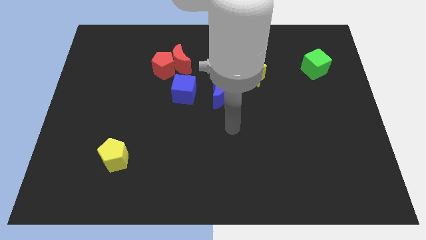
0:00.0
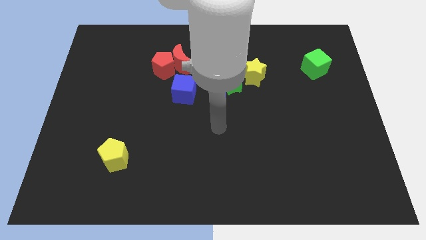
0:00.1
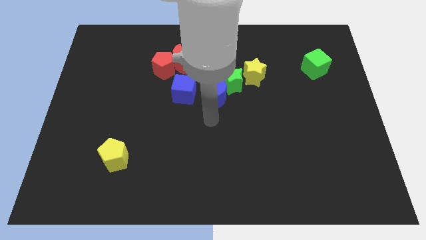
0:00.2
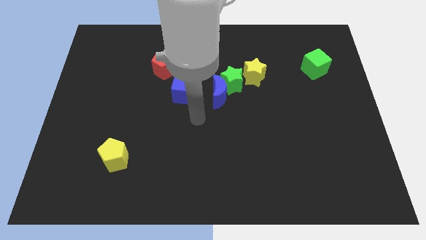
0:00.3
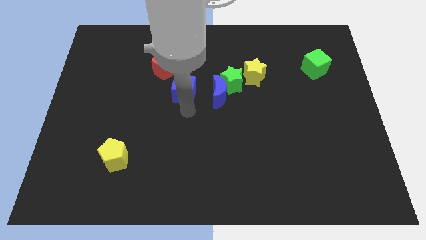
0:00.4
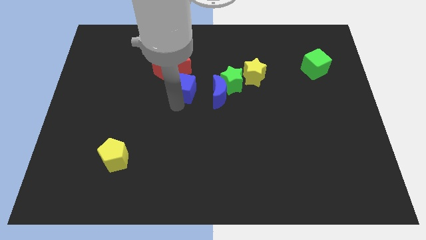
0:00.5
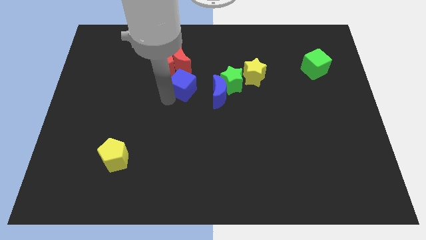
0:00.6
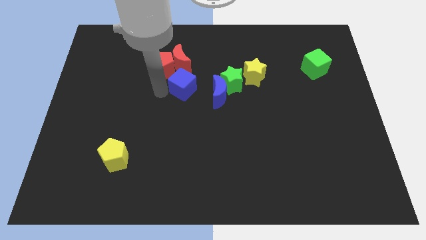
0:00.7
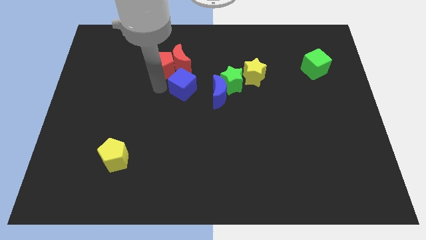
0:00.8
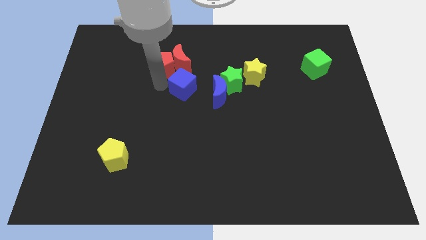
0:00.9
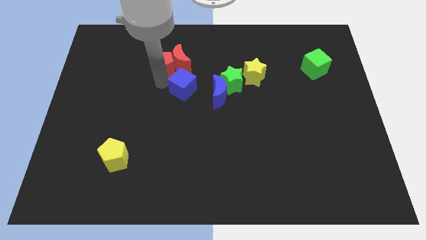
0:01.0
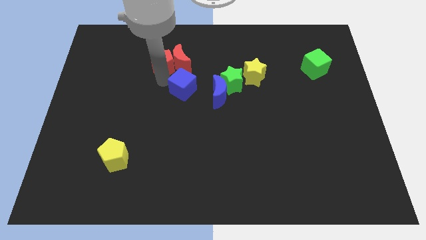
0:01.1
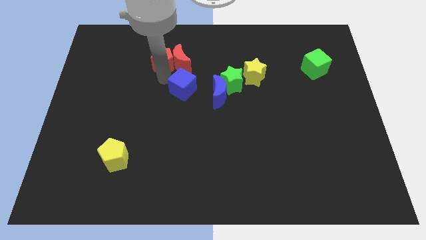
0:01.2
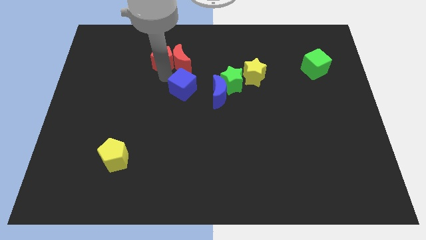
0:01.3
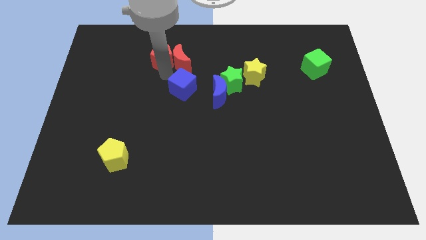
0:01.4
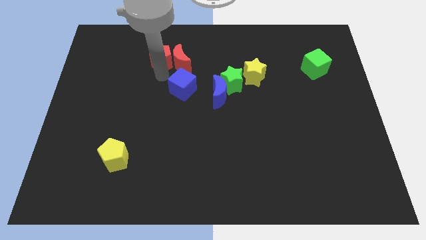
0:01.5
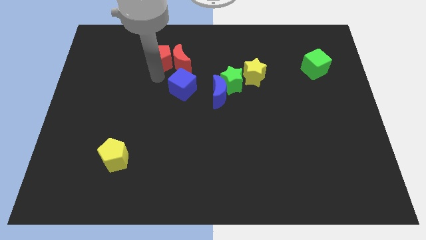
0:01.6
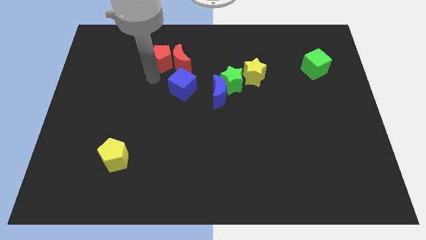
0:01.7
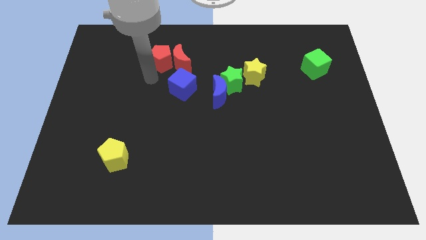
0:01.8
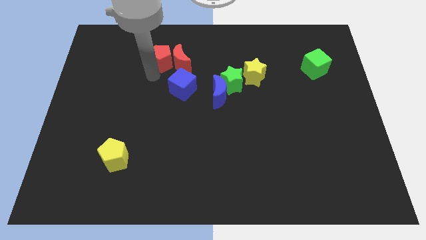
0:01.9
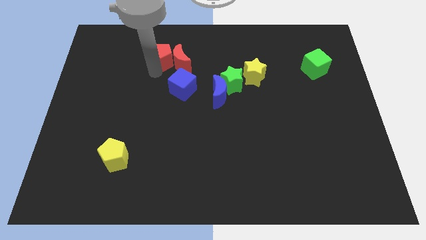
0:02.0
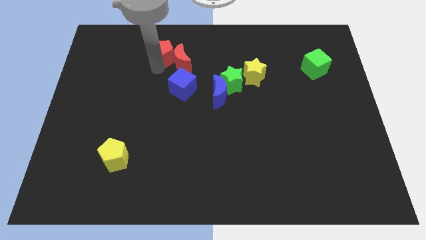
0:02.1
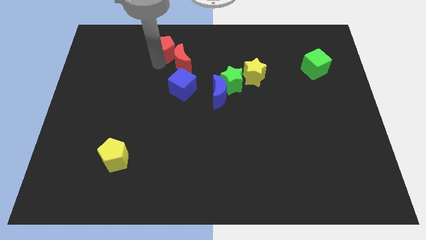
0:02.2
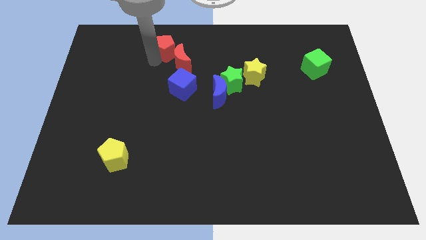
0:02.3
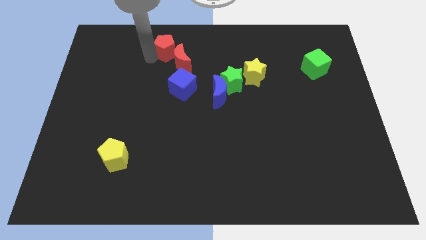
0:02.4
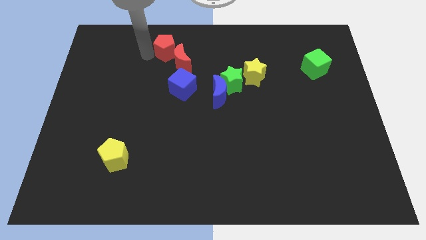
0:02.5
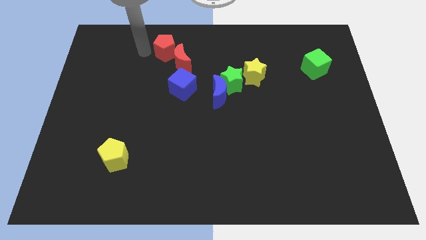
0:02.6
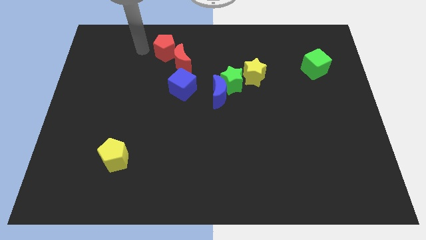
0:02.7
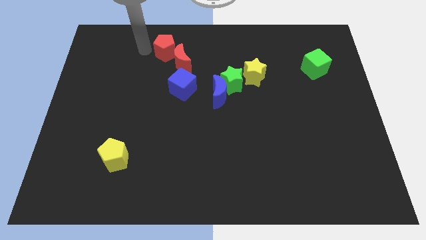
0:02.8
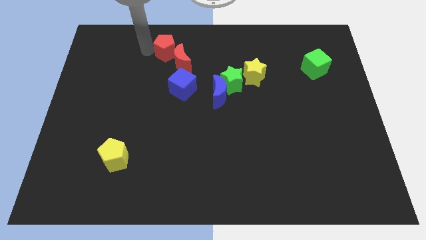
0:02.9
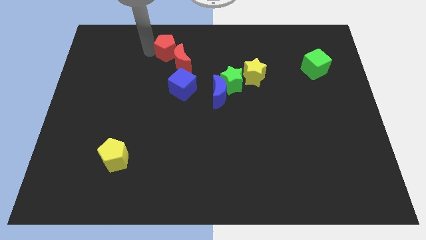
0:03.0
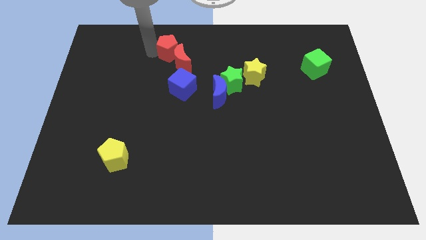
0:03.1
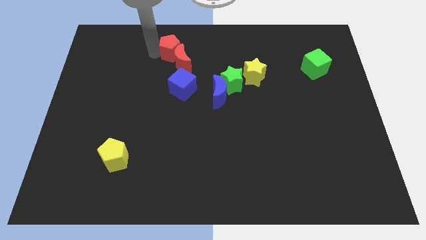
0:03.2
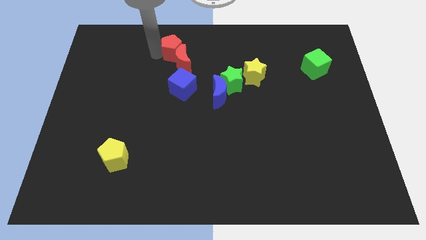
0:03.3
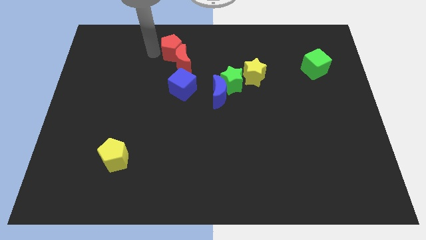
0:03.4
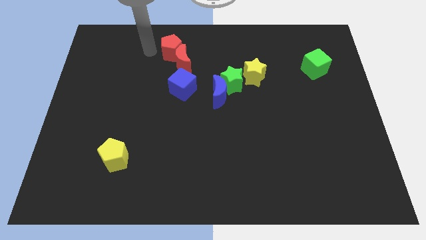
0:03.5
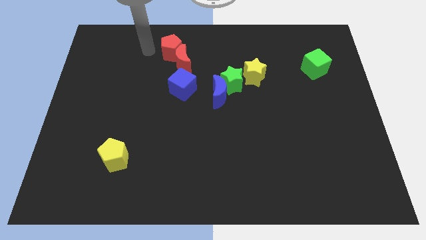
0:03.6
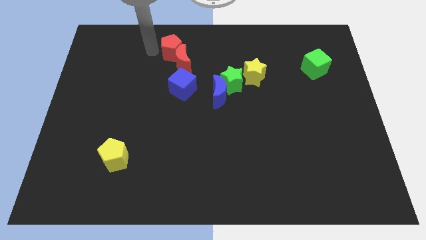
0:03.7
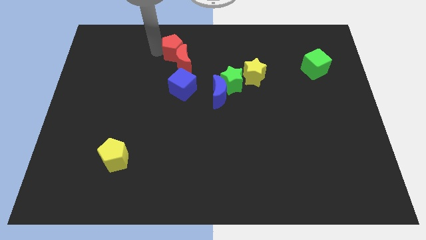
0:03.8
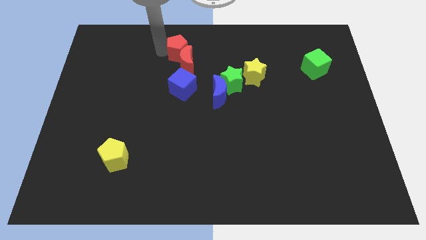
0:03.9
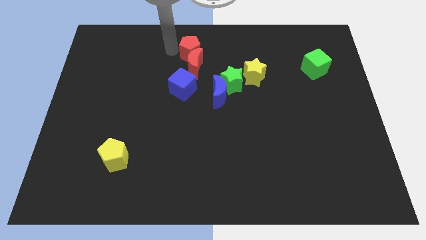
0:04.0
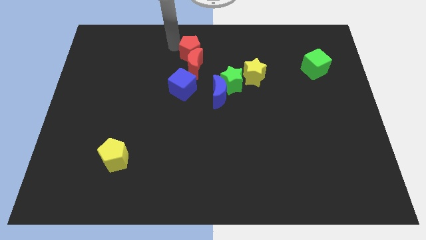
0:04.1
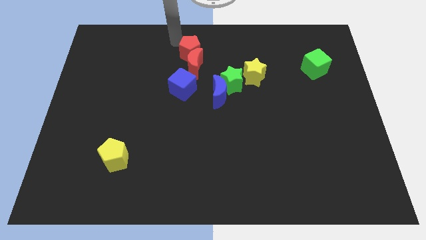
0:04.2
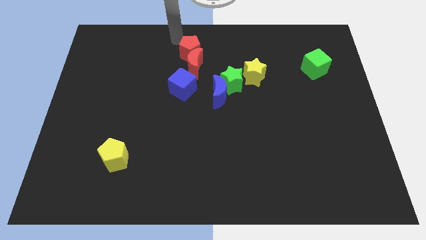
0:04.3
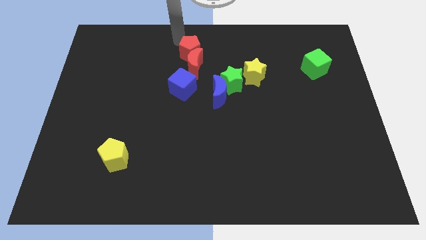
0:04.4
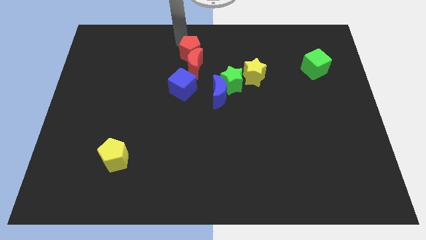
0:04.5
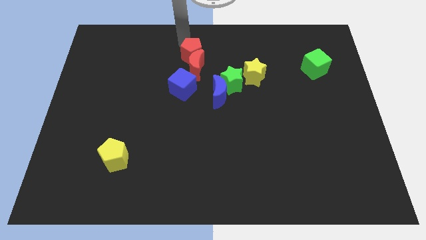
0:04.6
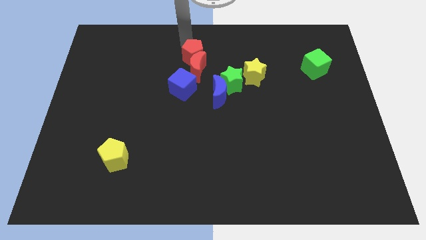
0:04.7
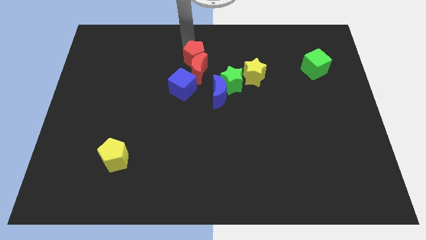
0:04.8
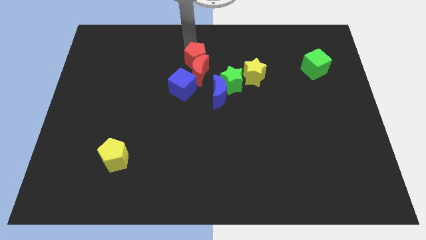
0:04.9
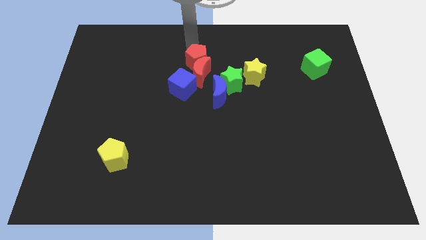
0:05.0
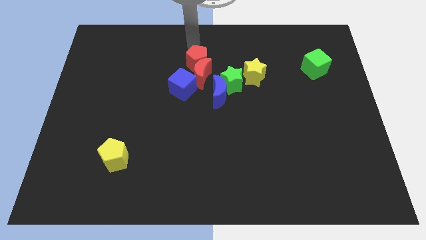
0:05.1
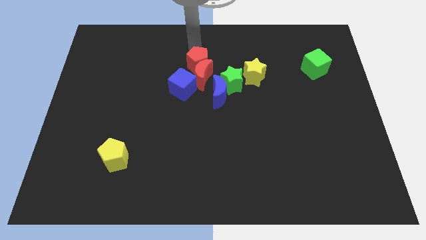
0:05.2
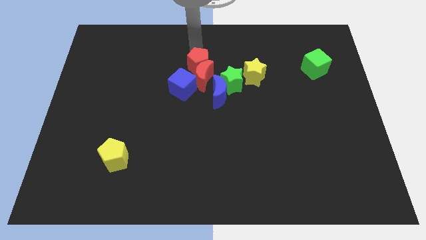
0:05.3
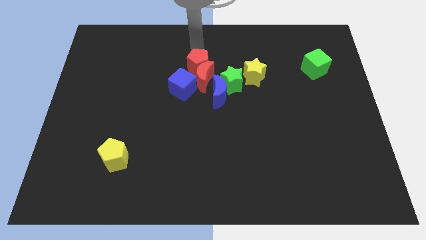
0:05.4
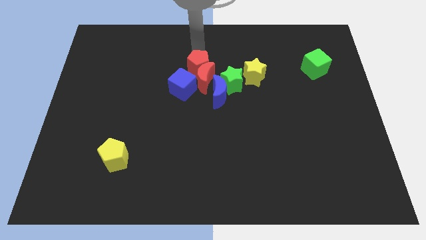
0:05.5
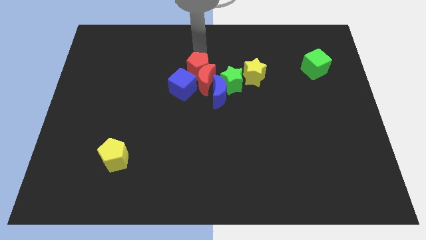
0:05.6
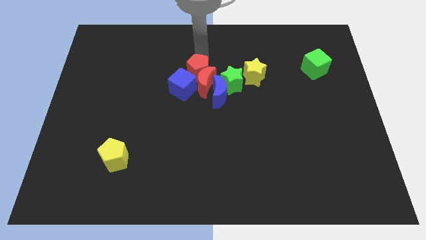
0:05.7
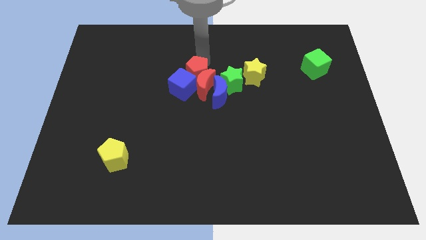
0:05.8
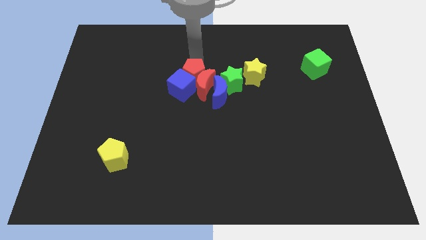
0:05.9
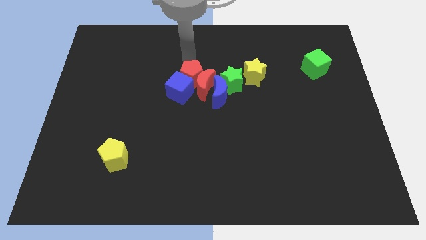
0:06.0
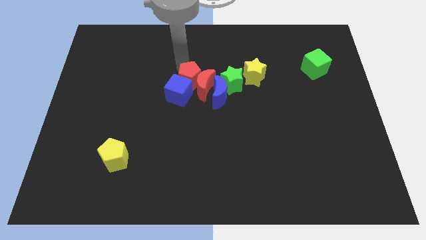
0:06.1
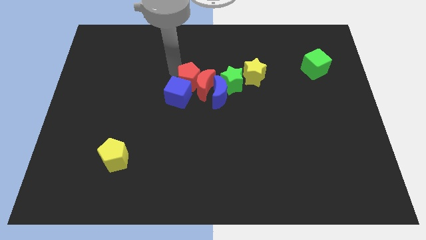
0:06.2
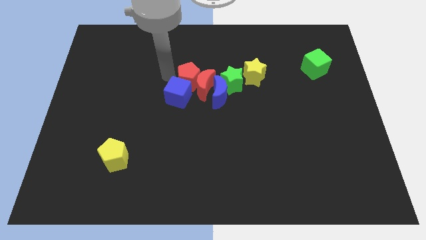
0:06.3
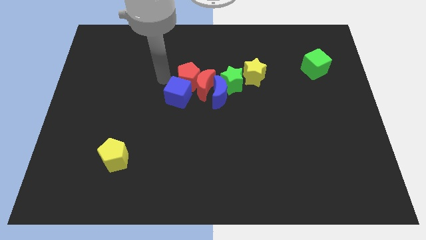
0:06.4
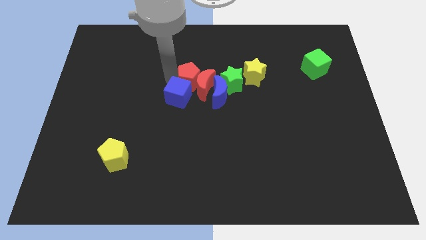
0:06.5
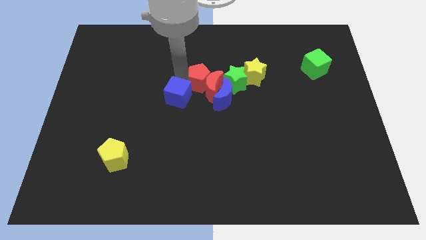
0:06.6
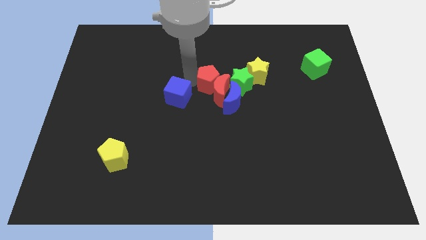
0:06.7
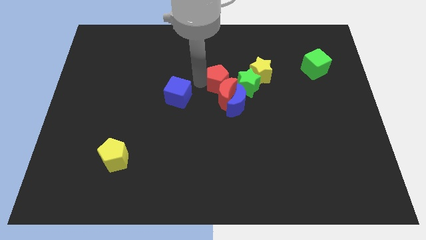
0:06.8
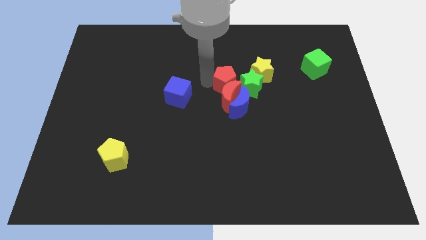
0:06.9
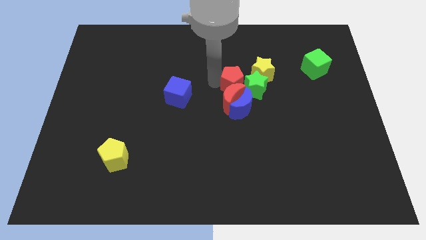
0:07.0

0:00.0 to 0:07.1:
slide the red pentagon towards the green star

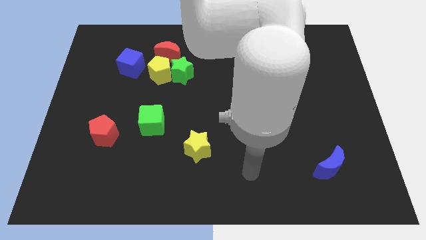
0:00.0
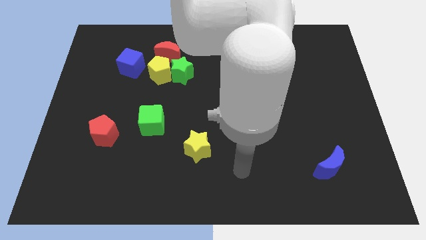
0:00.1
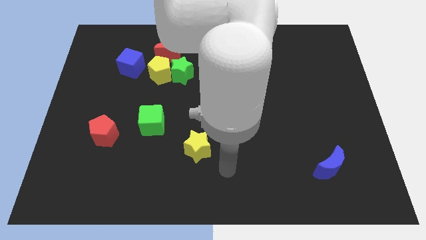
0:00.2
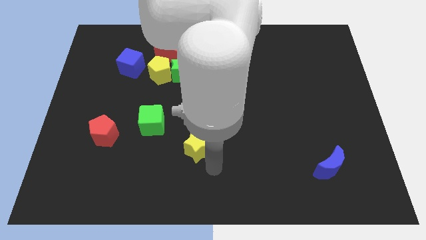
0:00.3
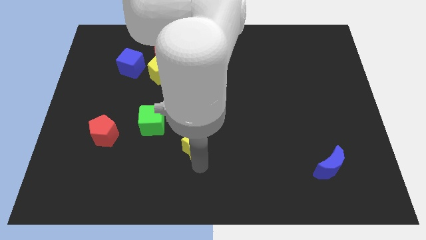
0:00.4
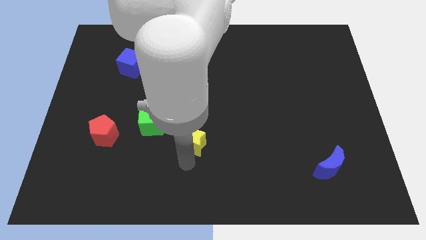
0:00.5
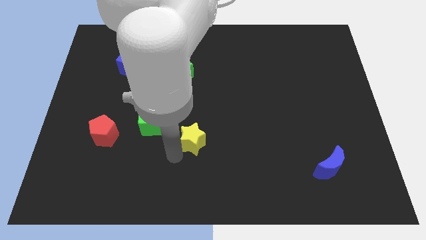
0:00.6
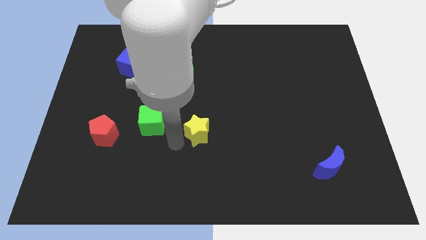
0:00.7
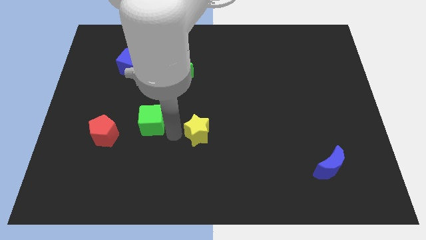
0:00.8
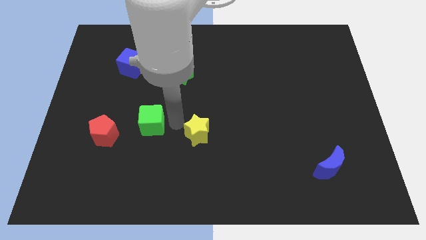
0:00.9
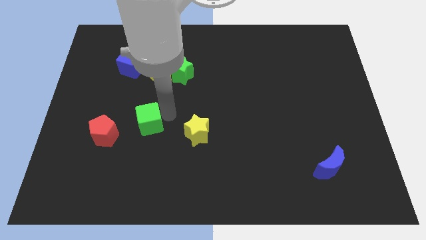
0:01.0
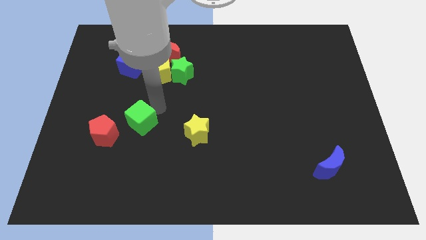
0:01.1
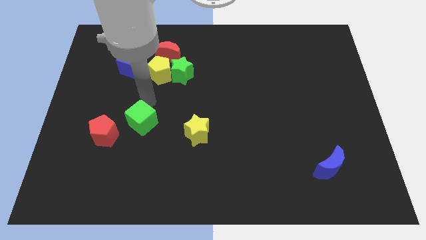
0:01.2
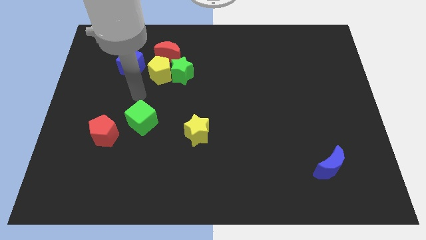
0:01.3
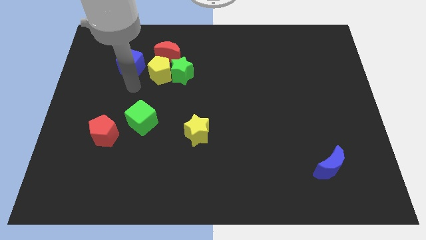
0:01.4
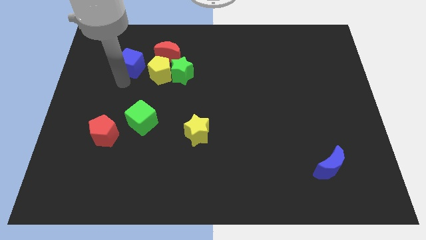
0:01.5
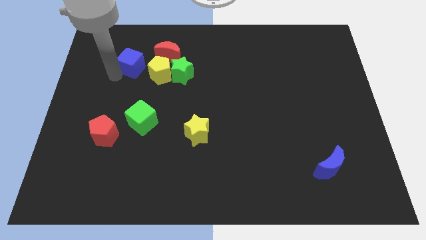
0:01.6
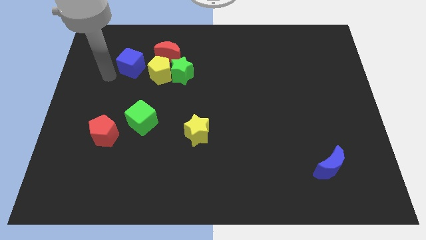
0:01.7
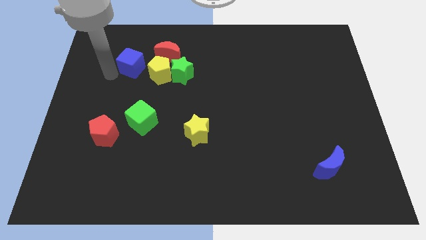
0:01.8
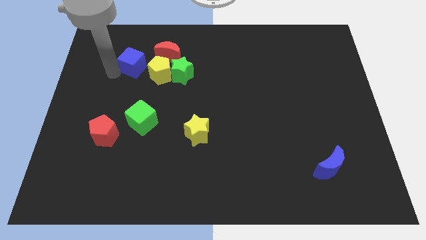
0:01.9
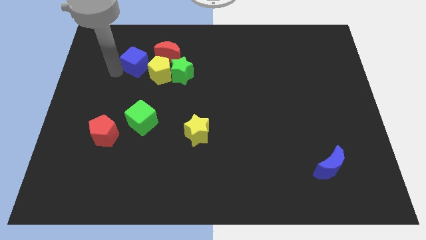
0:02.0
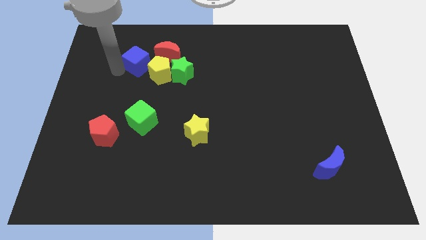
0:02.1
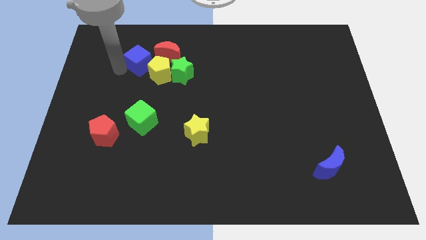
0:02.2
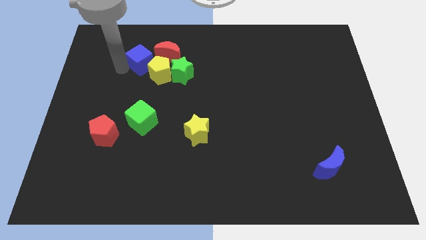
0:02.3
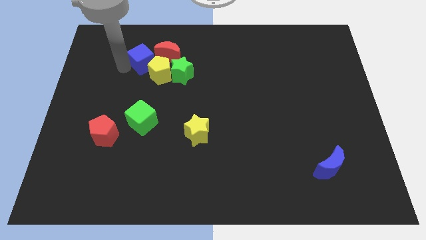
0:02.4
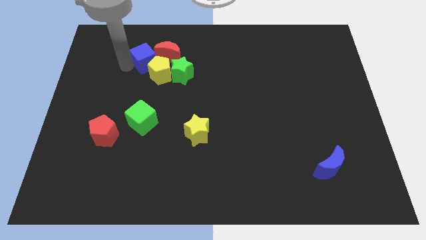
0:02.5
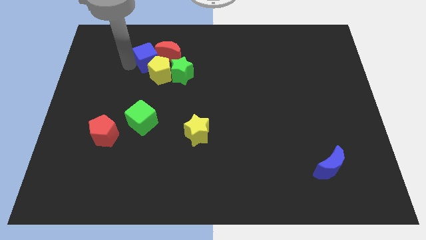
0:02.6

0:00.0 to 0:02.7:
push the blue cube close to the red moon
